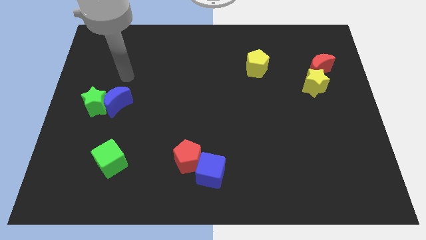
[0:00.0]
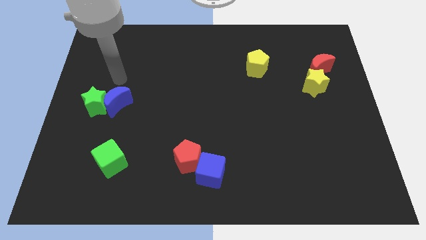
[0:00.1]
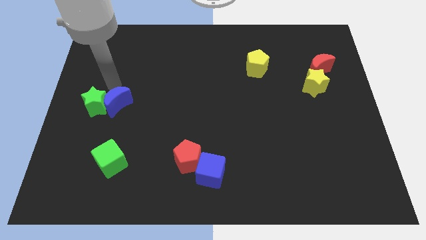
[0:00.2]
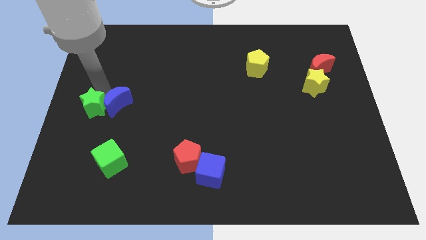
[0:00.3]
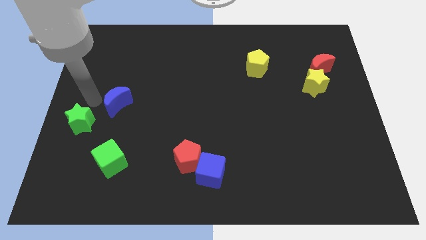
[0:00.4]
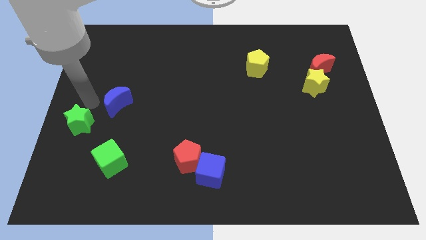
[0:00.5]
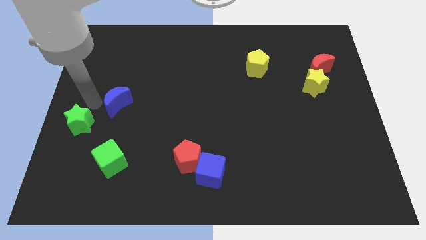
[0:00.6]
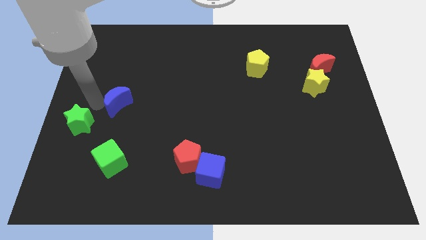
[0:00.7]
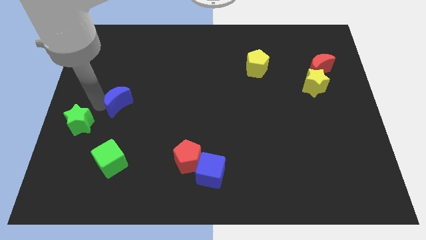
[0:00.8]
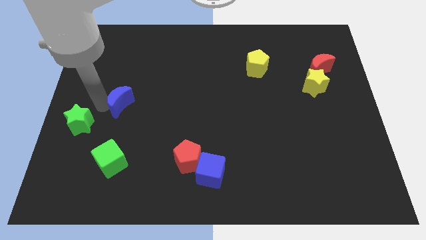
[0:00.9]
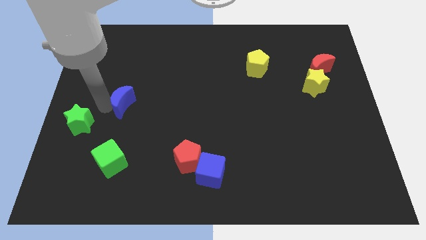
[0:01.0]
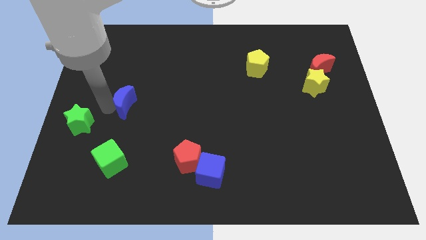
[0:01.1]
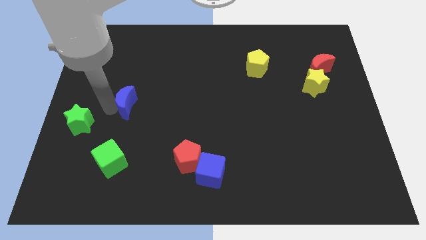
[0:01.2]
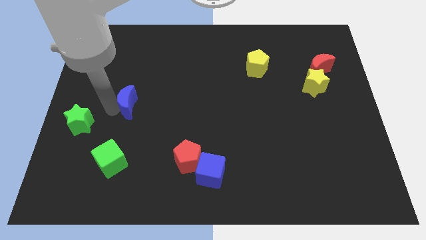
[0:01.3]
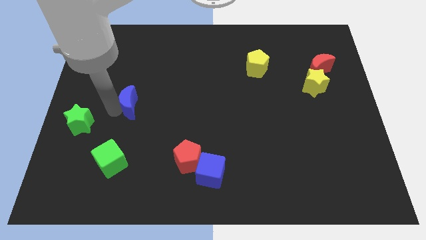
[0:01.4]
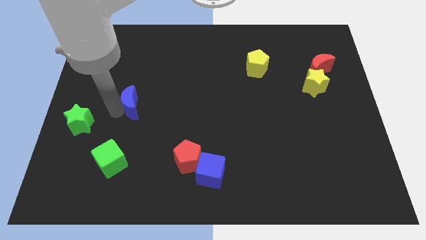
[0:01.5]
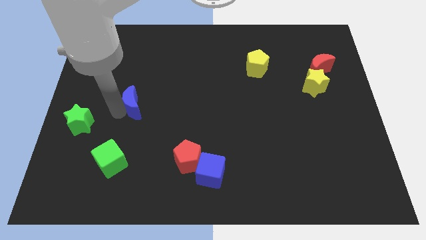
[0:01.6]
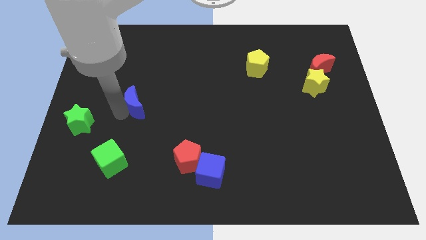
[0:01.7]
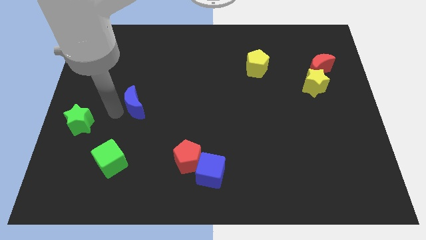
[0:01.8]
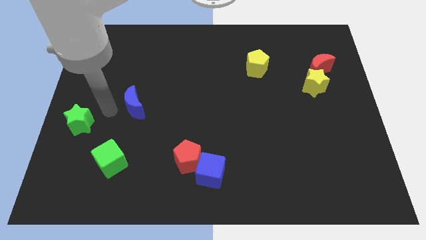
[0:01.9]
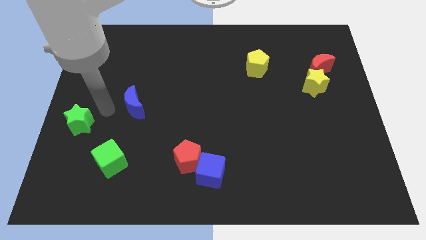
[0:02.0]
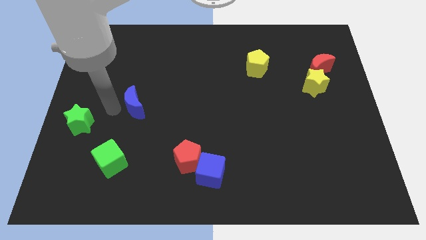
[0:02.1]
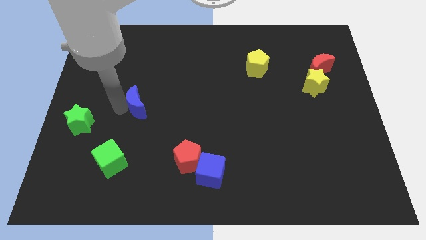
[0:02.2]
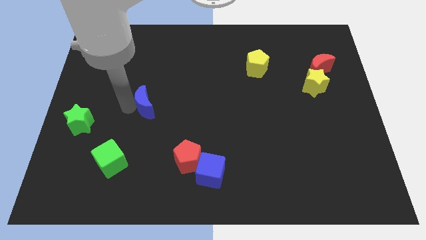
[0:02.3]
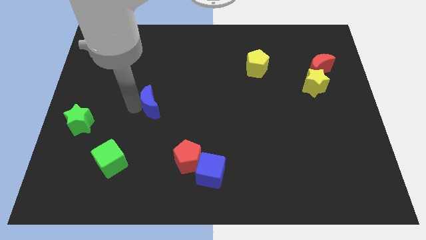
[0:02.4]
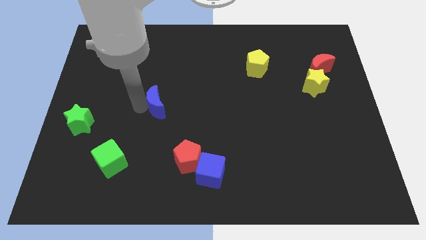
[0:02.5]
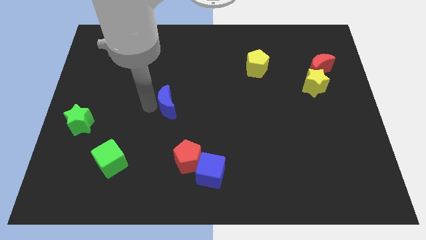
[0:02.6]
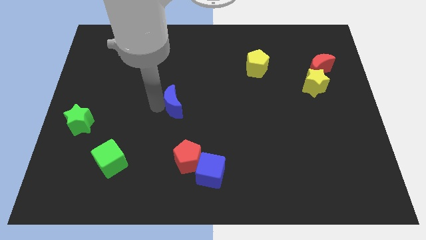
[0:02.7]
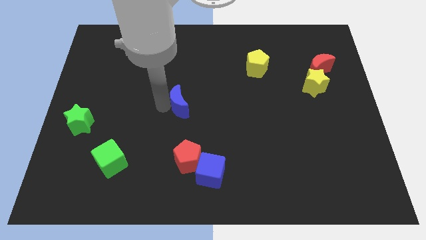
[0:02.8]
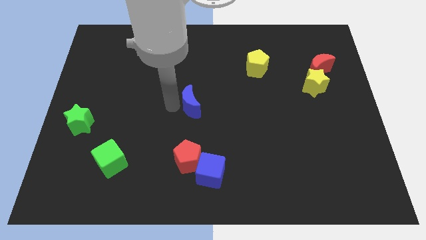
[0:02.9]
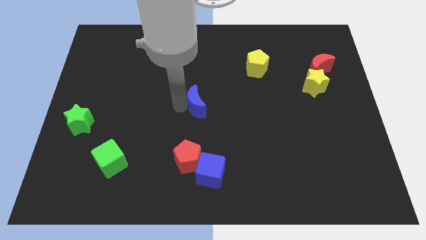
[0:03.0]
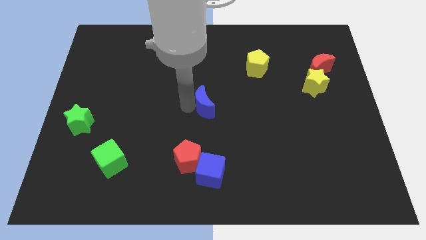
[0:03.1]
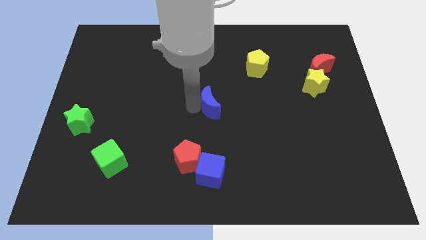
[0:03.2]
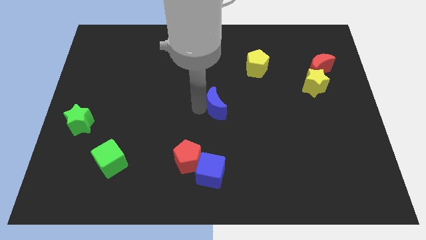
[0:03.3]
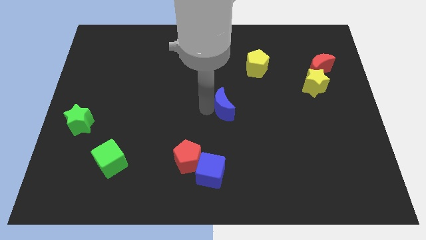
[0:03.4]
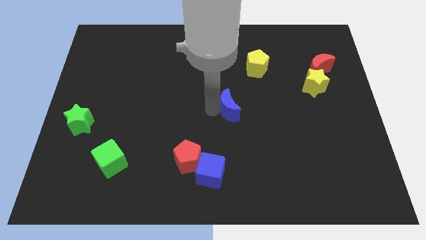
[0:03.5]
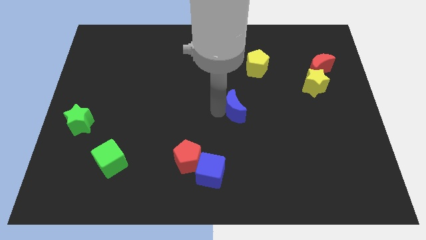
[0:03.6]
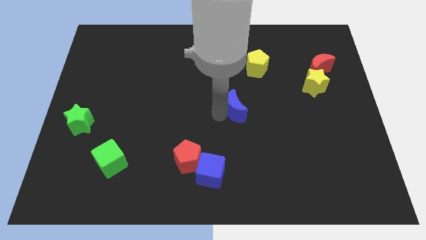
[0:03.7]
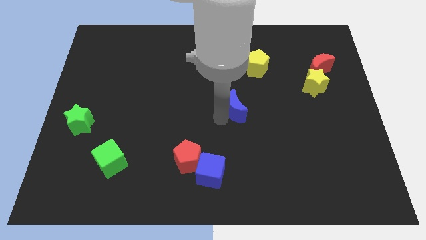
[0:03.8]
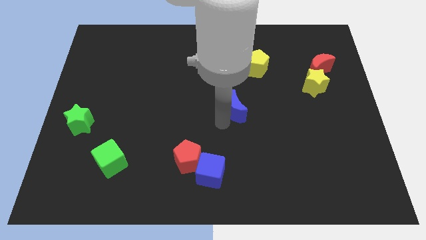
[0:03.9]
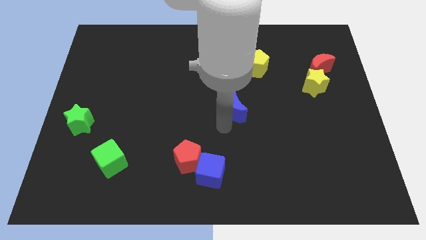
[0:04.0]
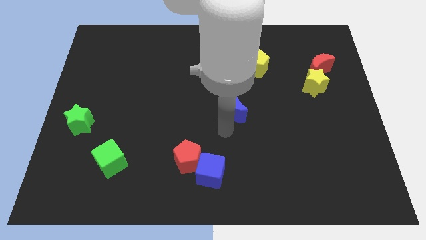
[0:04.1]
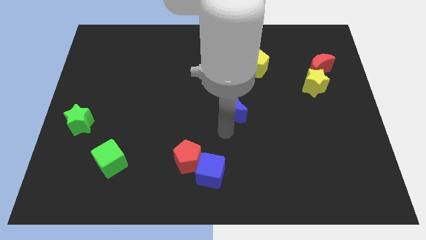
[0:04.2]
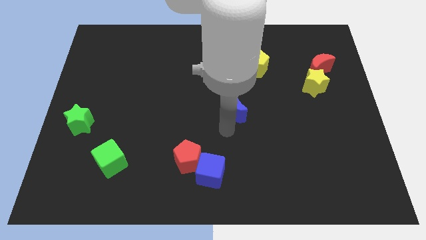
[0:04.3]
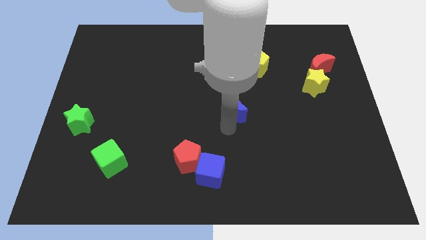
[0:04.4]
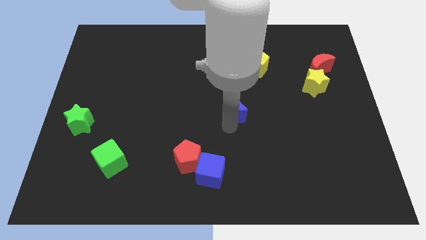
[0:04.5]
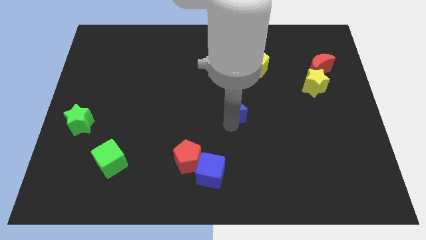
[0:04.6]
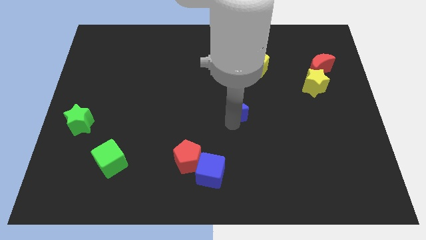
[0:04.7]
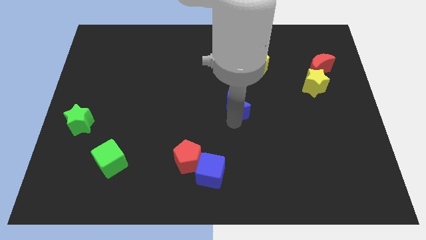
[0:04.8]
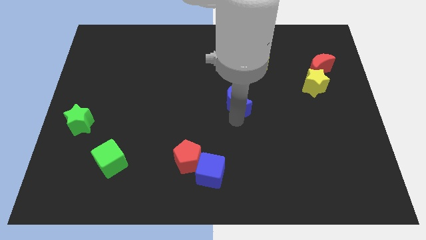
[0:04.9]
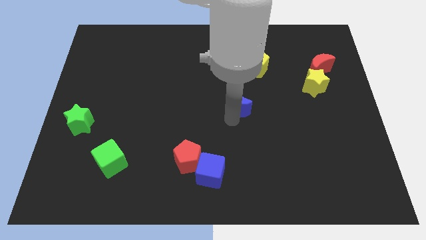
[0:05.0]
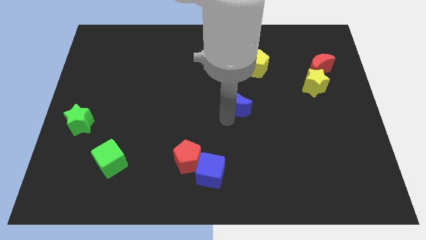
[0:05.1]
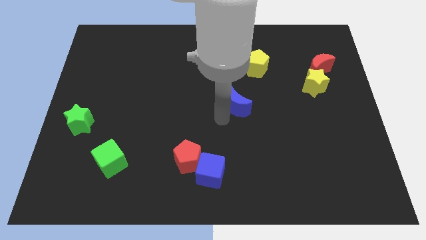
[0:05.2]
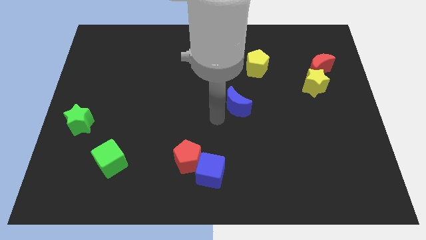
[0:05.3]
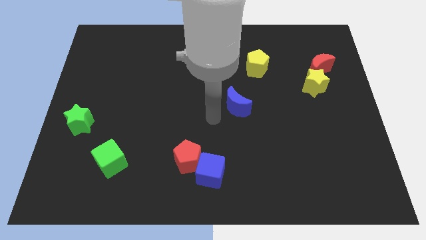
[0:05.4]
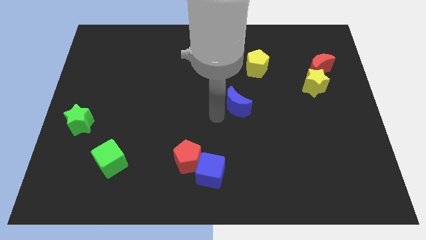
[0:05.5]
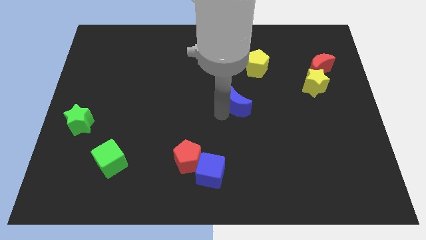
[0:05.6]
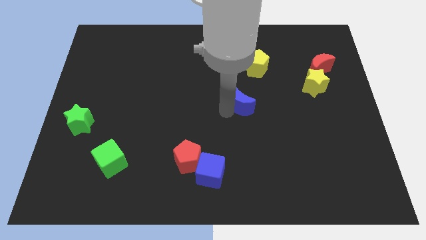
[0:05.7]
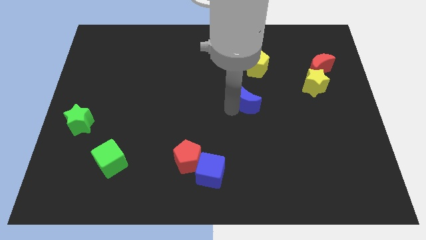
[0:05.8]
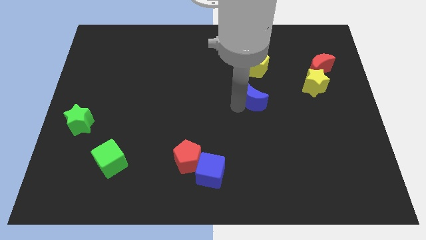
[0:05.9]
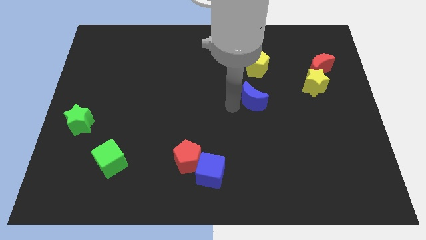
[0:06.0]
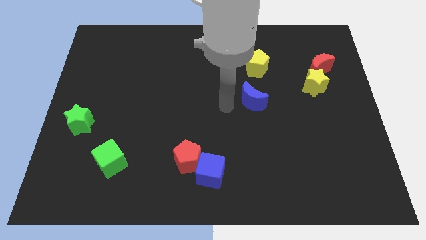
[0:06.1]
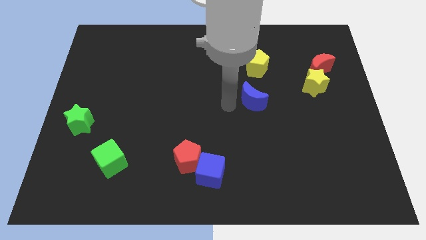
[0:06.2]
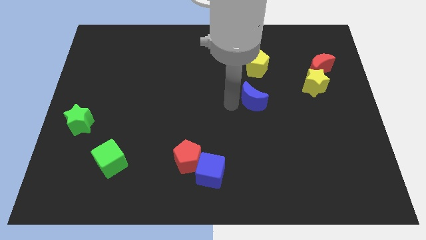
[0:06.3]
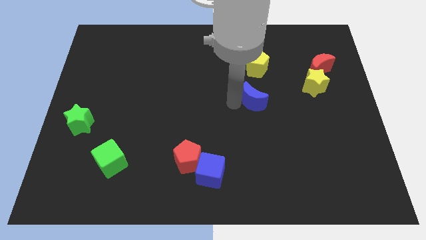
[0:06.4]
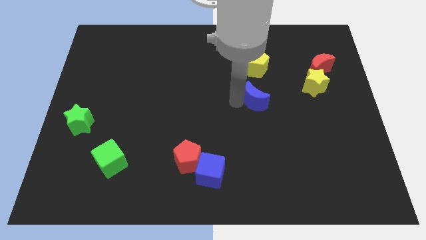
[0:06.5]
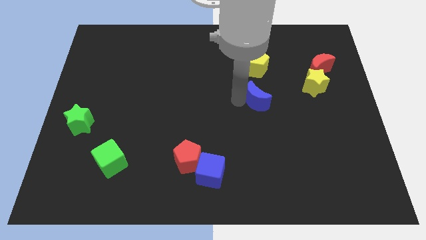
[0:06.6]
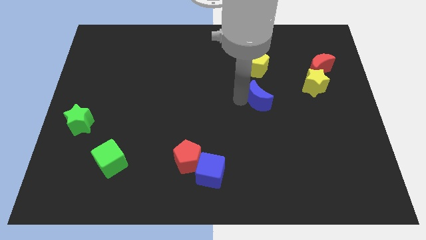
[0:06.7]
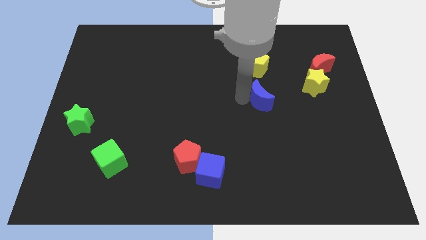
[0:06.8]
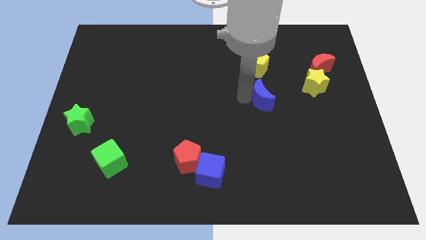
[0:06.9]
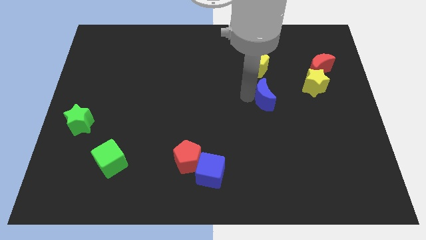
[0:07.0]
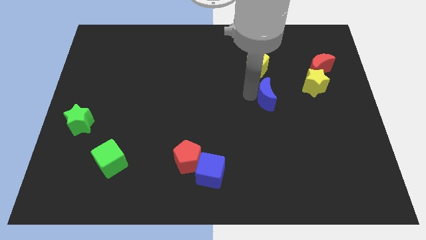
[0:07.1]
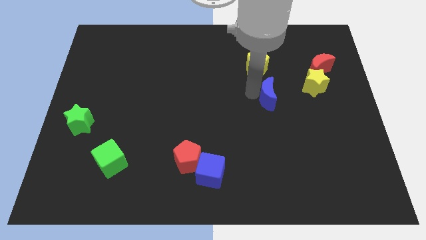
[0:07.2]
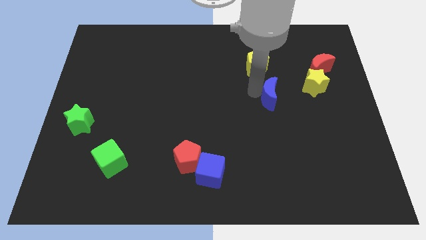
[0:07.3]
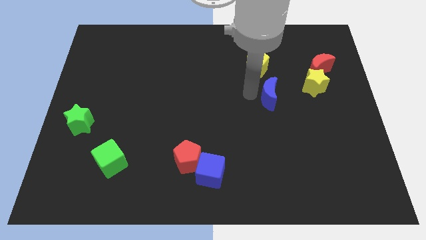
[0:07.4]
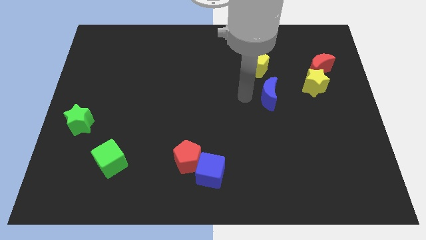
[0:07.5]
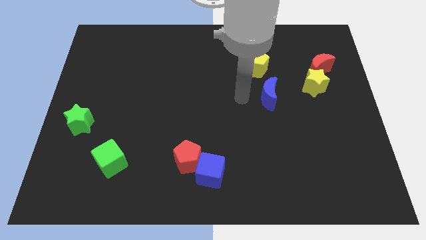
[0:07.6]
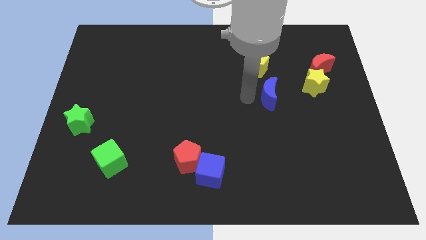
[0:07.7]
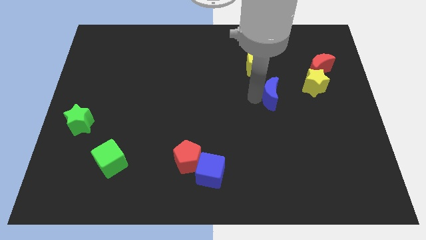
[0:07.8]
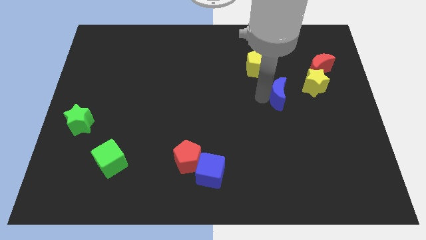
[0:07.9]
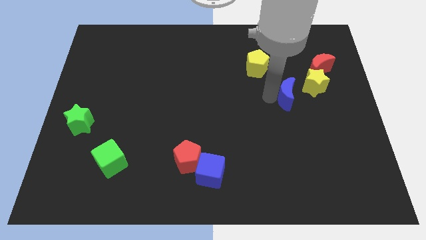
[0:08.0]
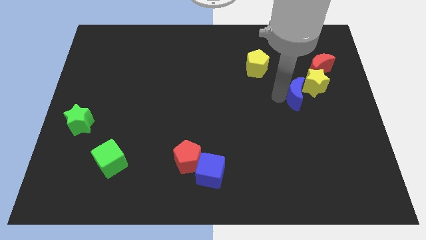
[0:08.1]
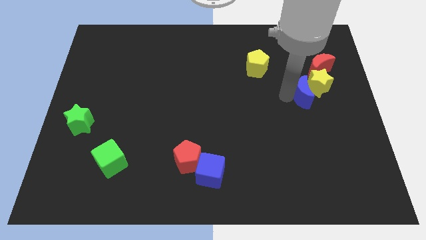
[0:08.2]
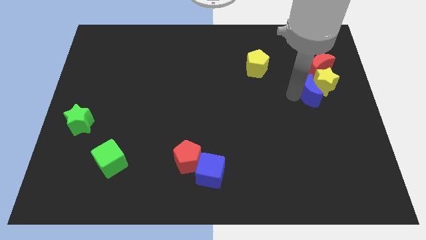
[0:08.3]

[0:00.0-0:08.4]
slide the blue moon below the red moon
